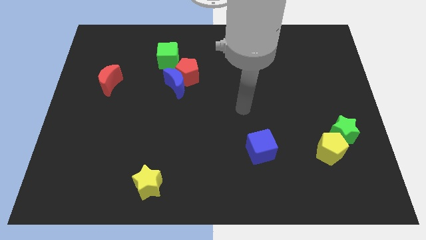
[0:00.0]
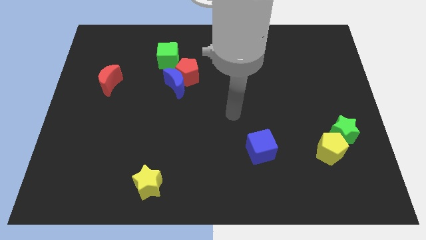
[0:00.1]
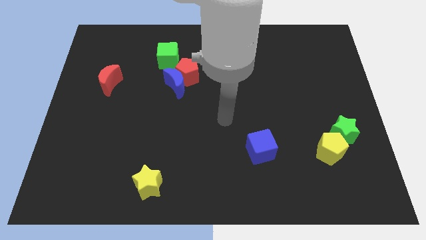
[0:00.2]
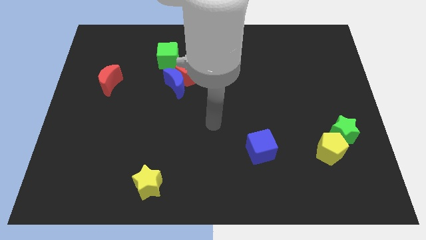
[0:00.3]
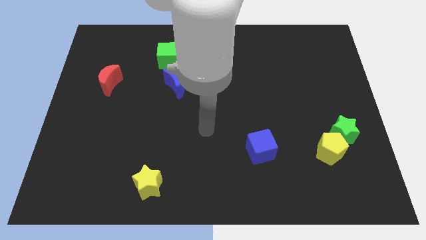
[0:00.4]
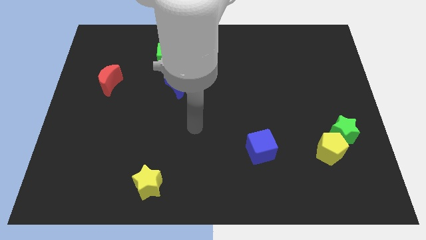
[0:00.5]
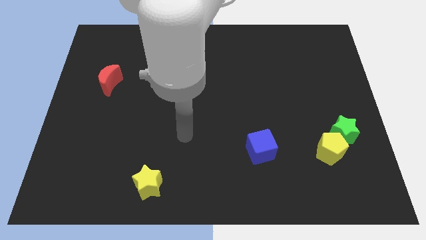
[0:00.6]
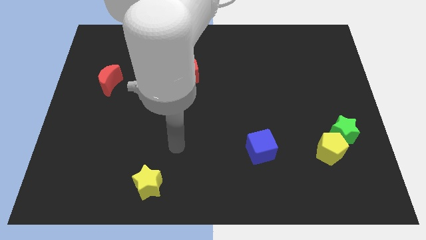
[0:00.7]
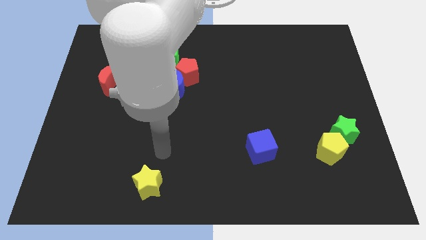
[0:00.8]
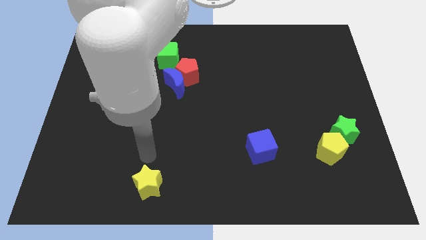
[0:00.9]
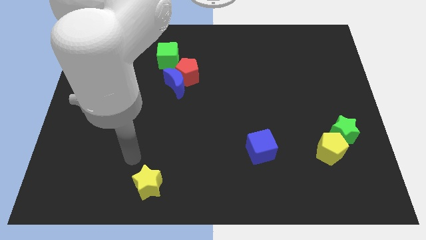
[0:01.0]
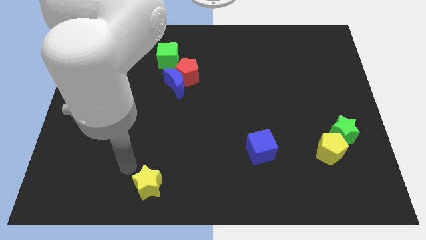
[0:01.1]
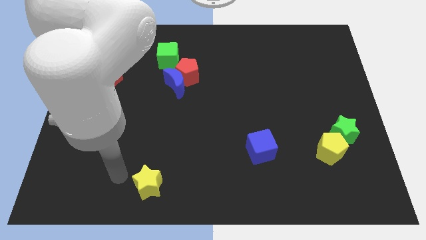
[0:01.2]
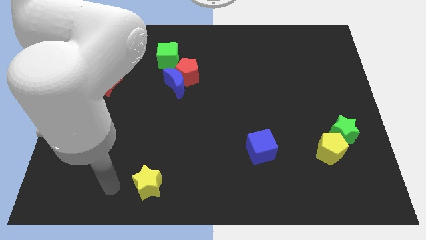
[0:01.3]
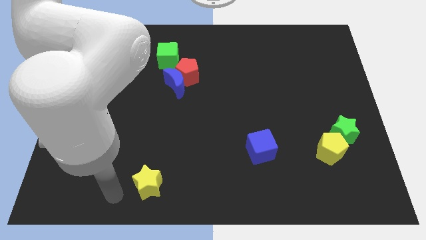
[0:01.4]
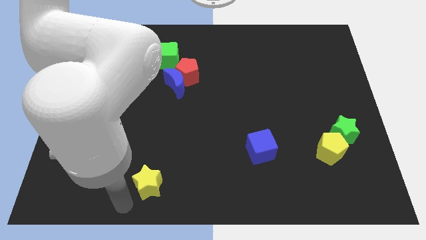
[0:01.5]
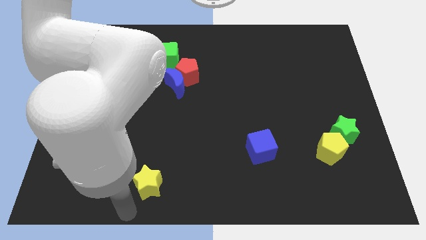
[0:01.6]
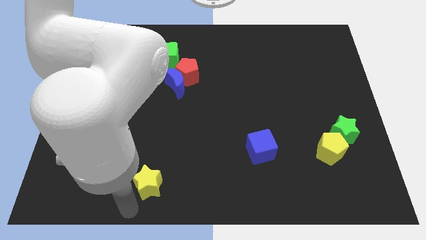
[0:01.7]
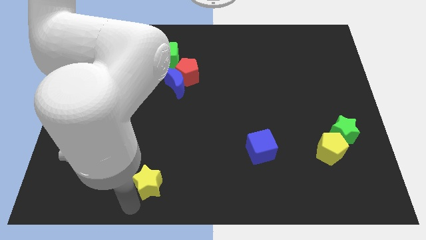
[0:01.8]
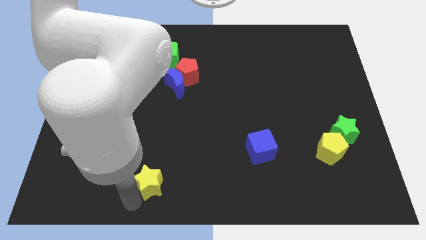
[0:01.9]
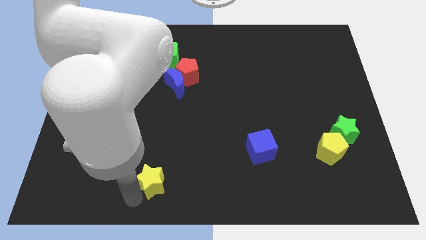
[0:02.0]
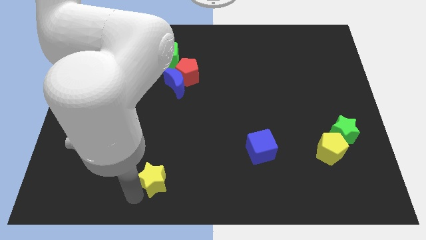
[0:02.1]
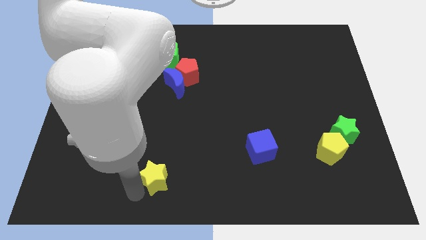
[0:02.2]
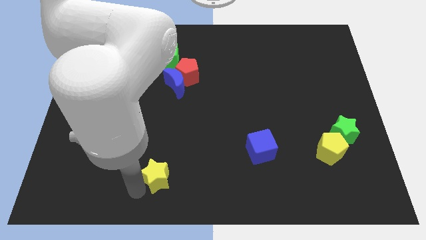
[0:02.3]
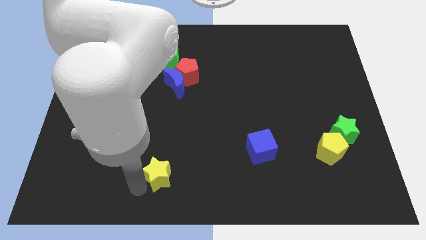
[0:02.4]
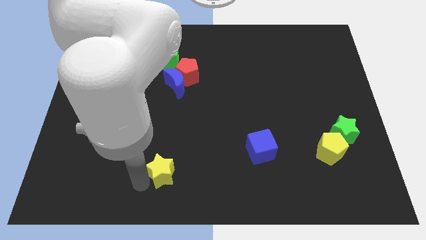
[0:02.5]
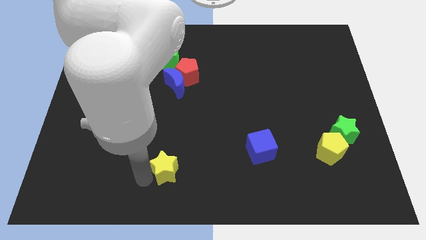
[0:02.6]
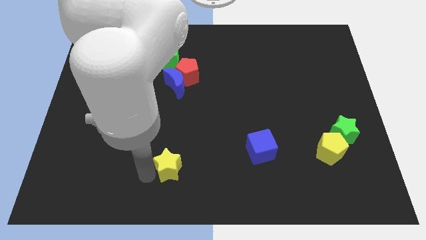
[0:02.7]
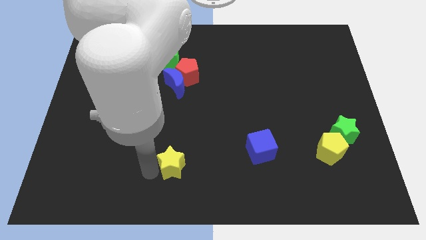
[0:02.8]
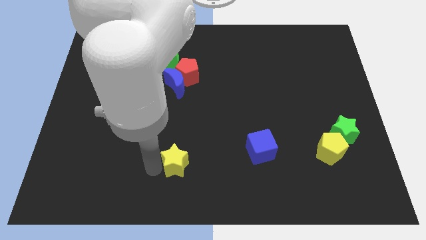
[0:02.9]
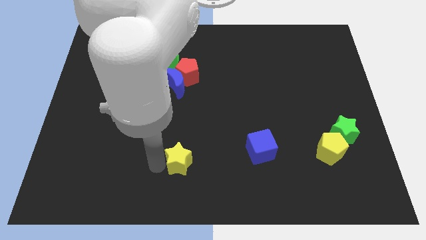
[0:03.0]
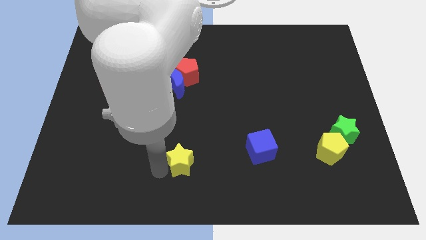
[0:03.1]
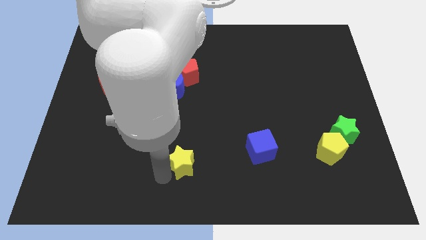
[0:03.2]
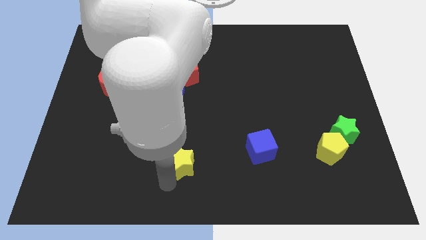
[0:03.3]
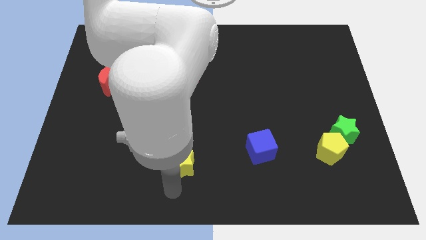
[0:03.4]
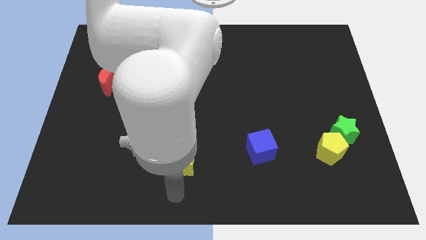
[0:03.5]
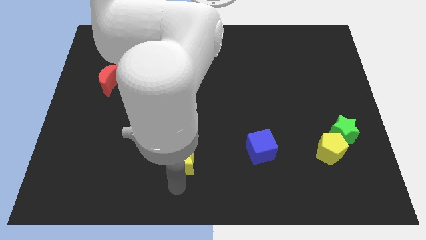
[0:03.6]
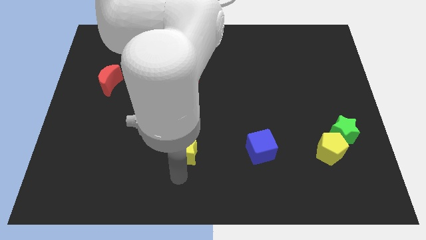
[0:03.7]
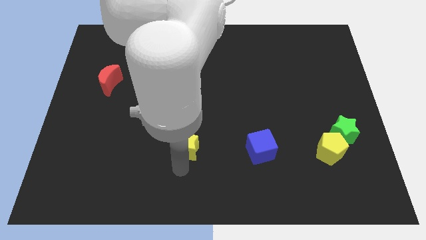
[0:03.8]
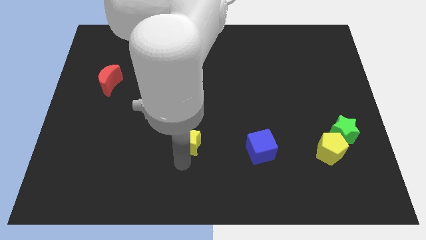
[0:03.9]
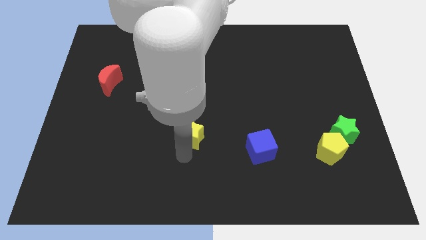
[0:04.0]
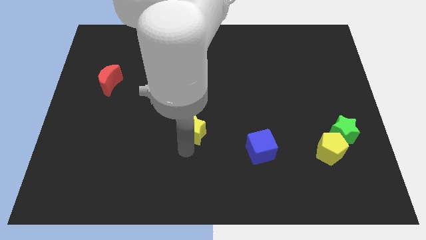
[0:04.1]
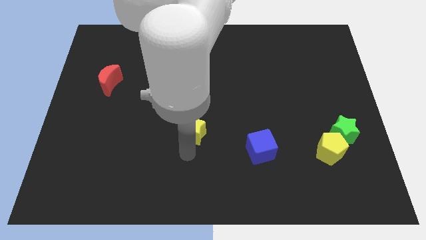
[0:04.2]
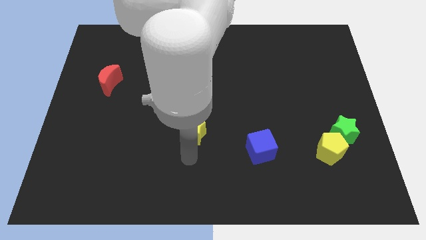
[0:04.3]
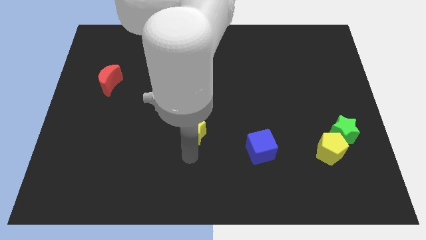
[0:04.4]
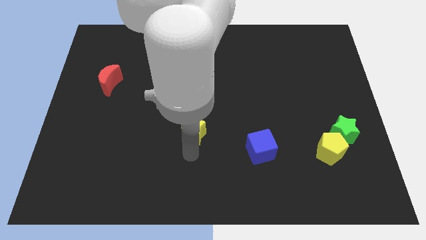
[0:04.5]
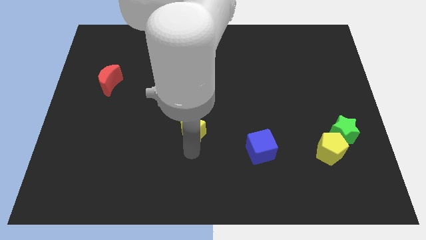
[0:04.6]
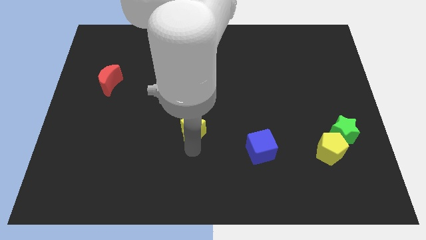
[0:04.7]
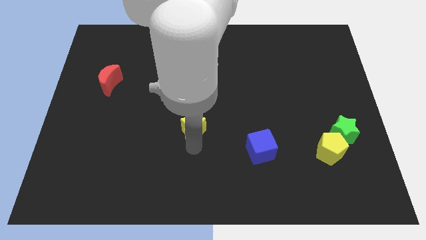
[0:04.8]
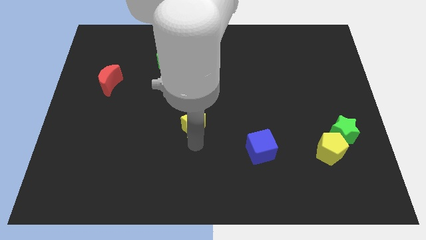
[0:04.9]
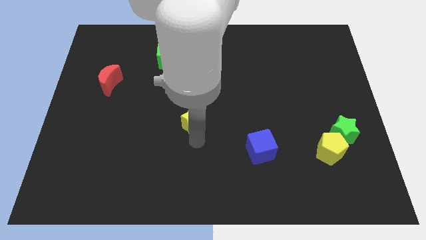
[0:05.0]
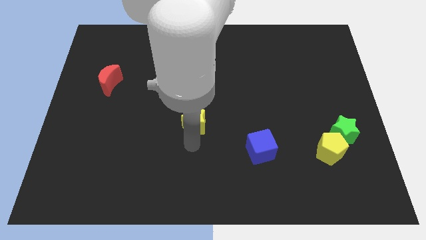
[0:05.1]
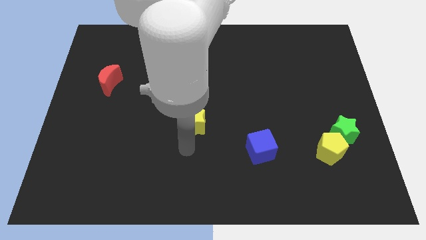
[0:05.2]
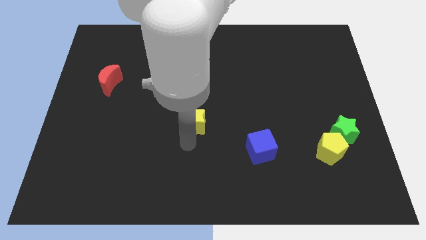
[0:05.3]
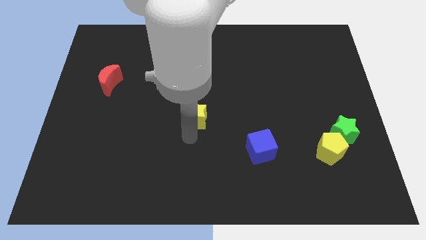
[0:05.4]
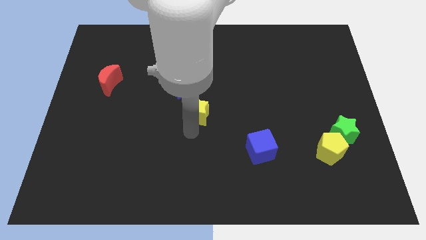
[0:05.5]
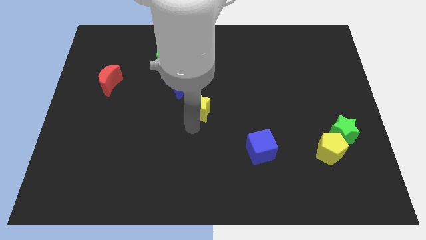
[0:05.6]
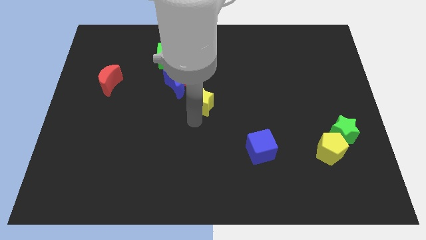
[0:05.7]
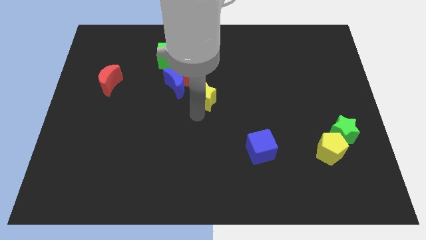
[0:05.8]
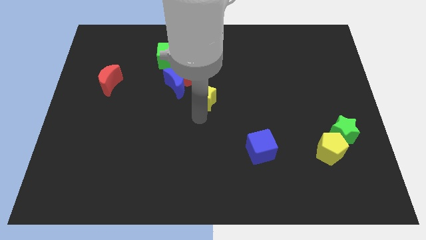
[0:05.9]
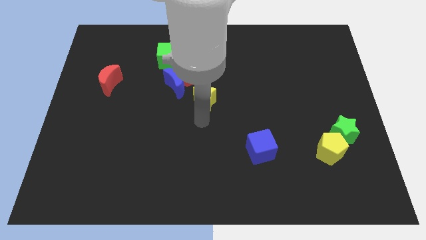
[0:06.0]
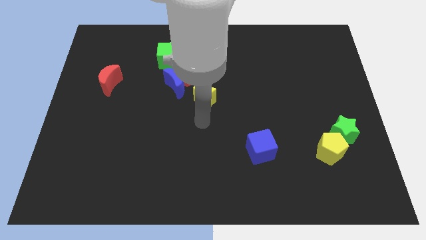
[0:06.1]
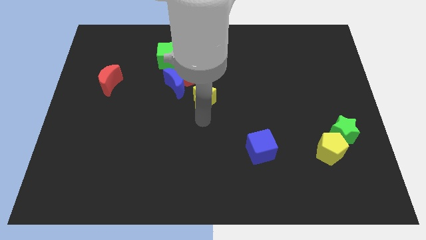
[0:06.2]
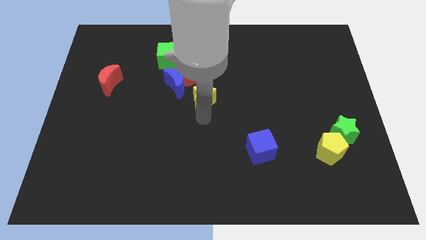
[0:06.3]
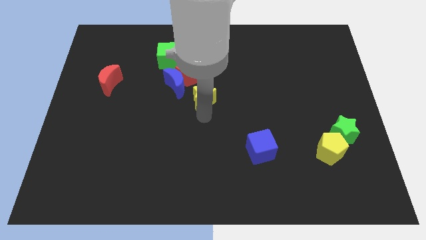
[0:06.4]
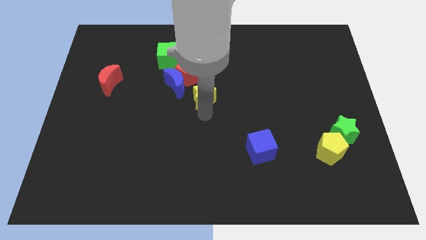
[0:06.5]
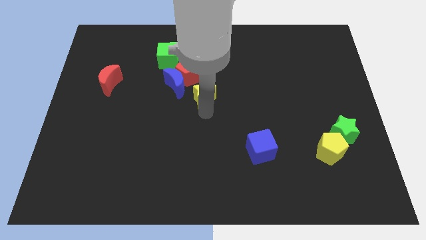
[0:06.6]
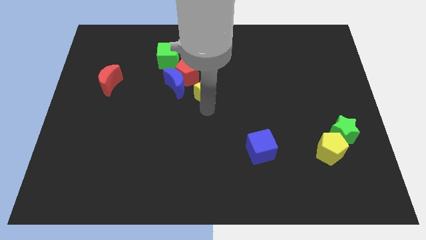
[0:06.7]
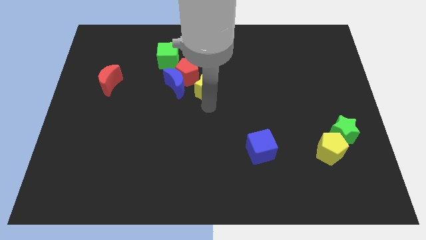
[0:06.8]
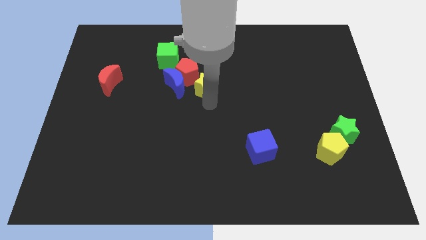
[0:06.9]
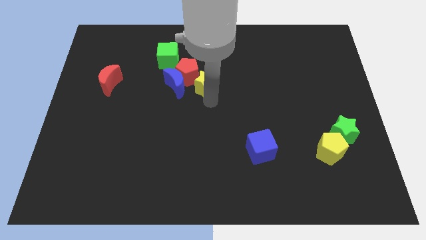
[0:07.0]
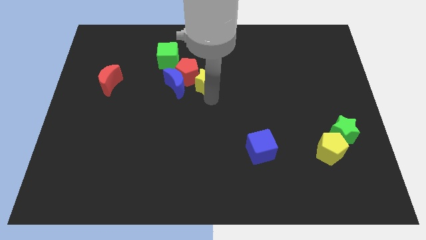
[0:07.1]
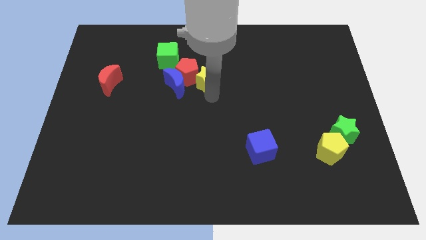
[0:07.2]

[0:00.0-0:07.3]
put the yellow star to the top right of the blue moon
